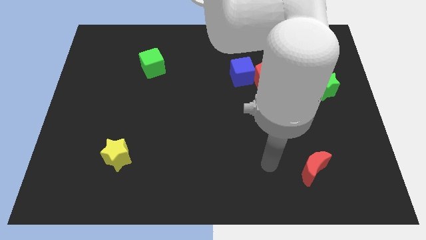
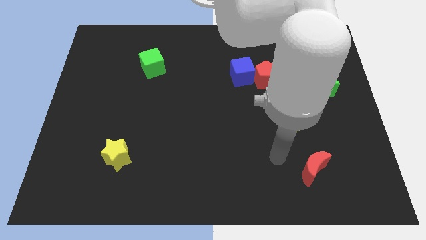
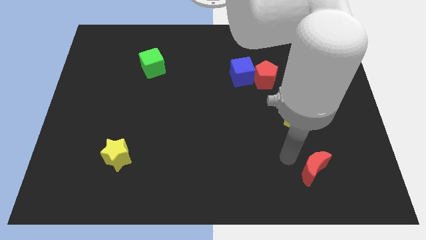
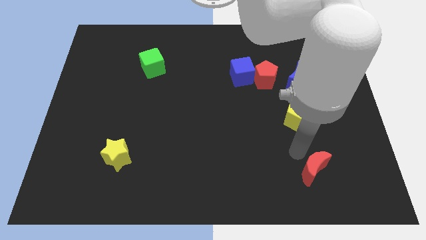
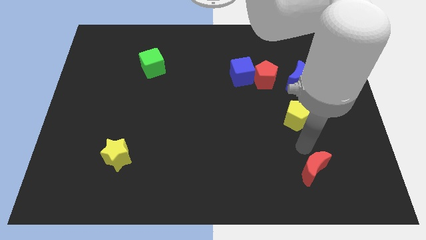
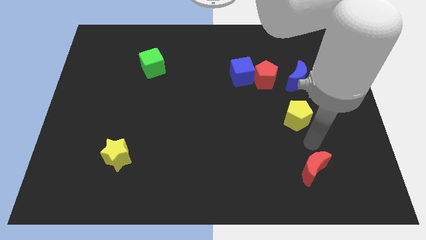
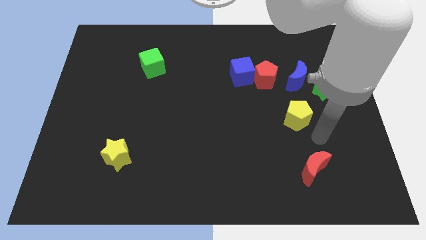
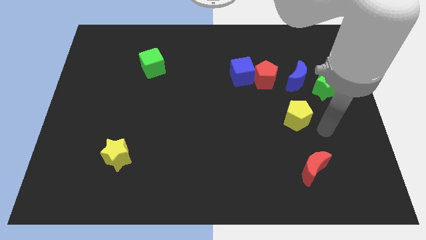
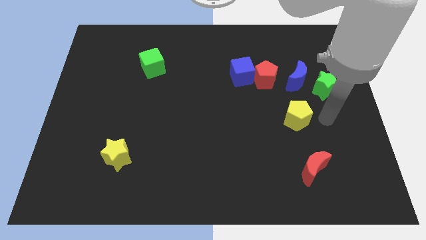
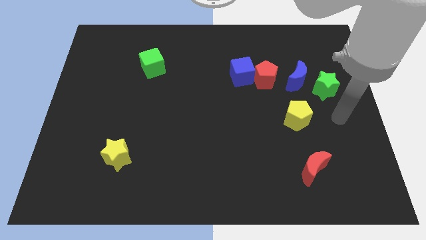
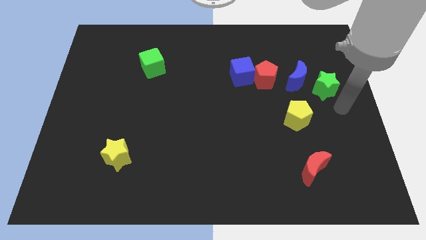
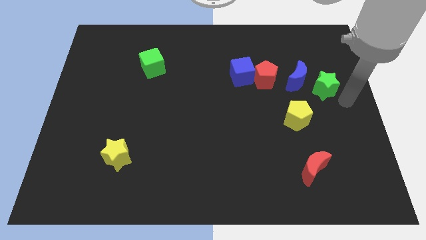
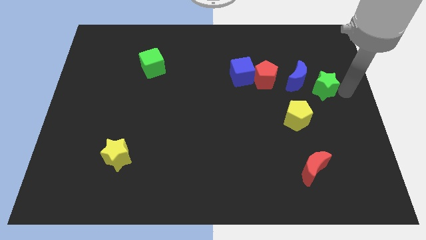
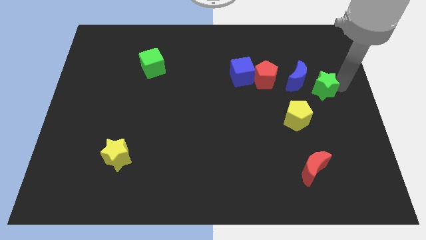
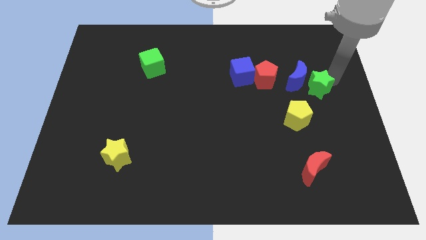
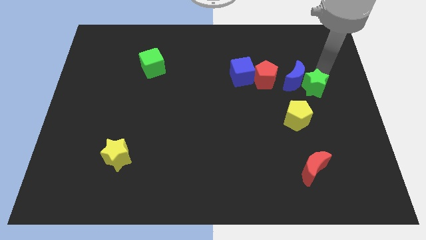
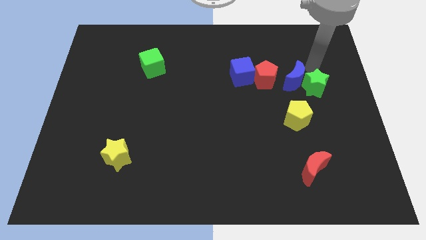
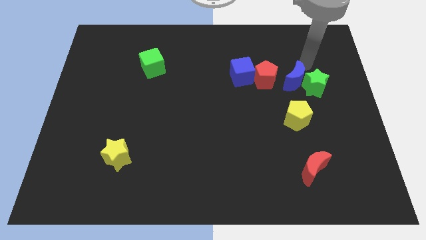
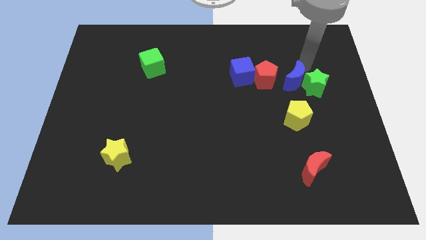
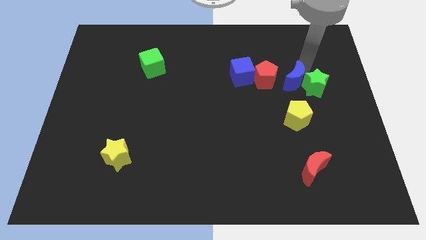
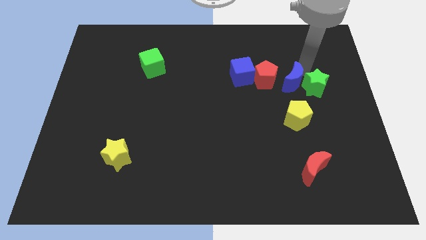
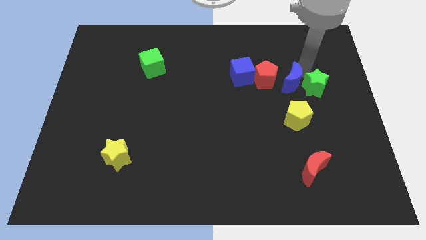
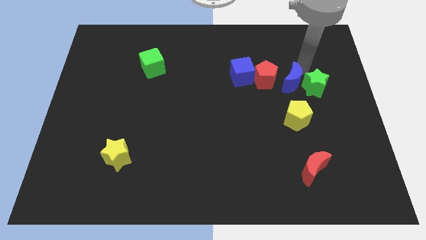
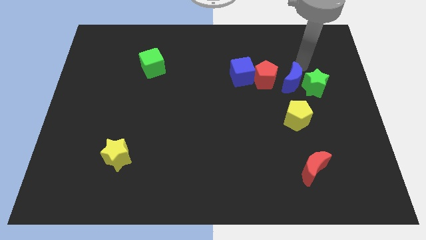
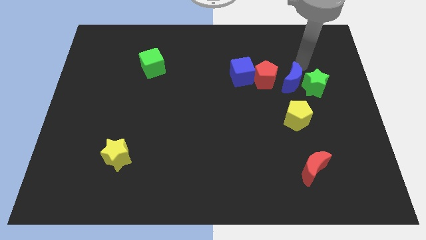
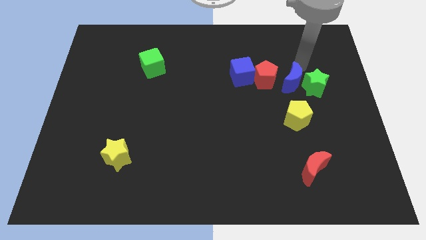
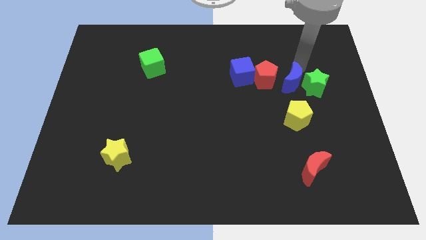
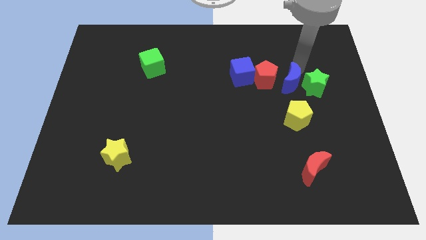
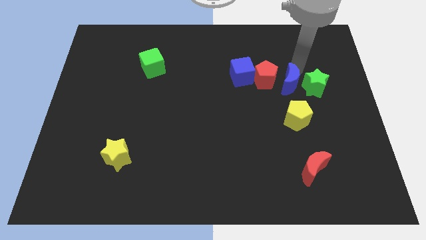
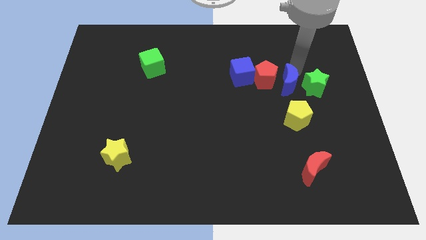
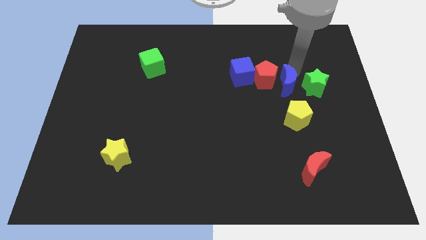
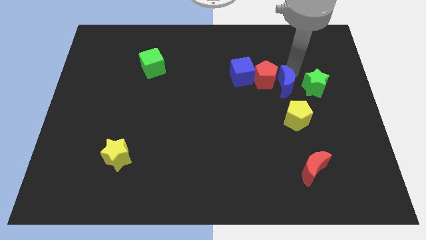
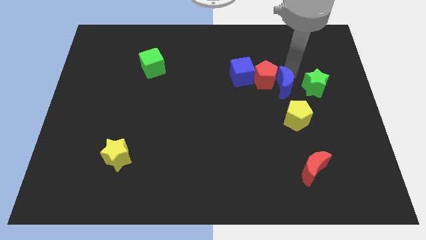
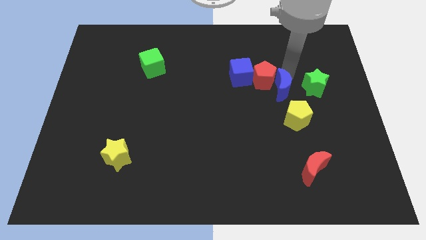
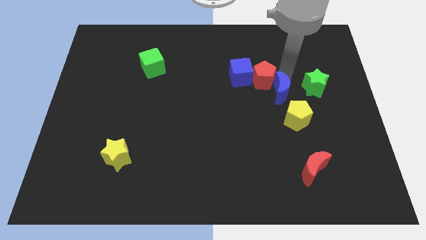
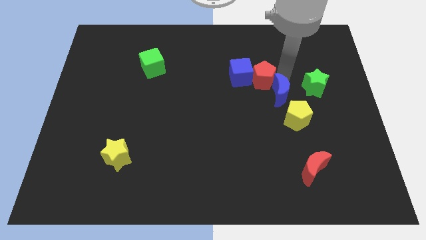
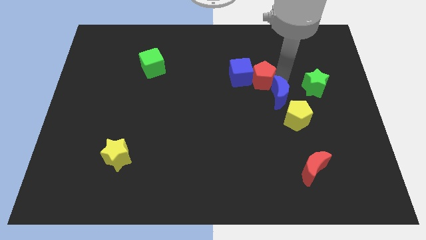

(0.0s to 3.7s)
move the blue moon down and then left slightly

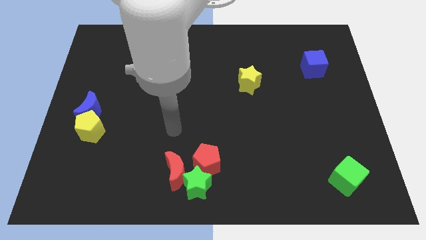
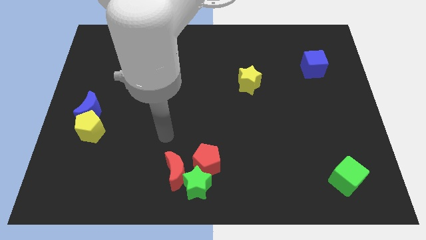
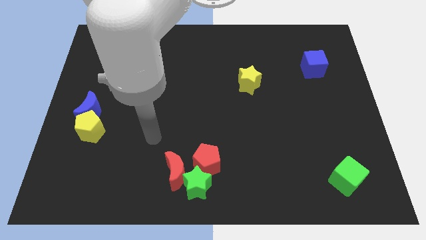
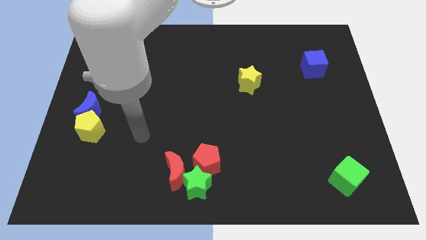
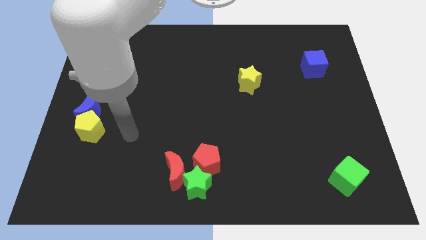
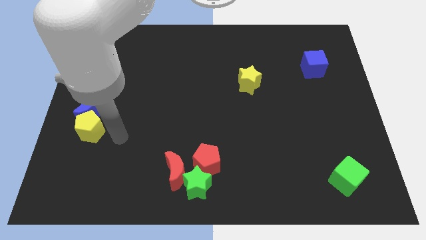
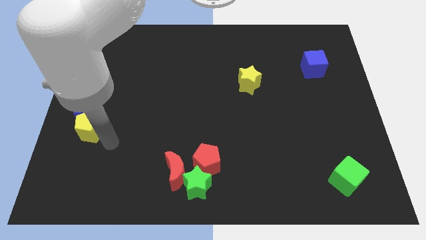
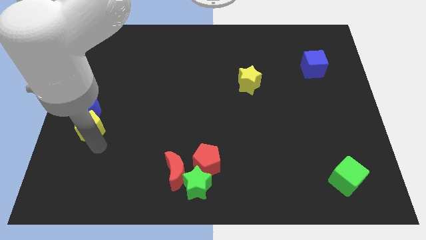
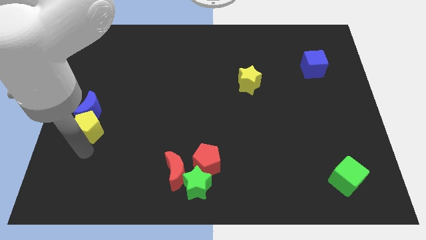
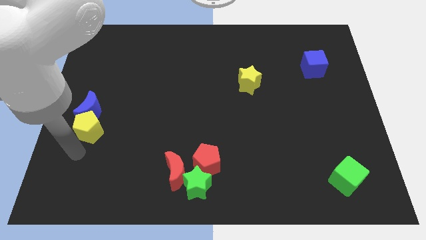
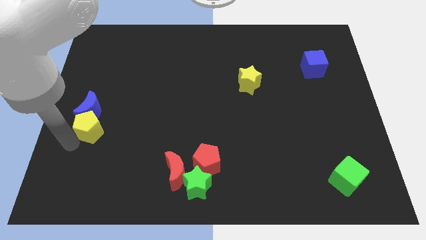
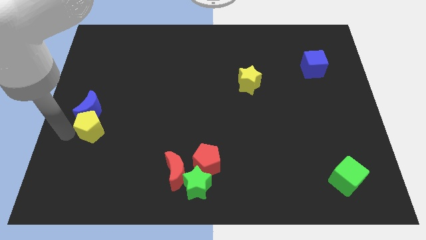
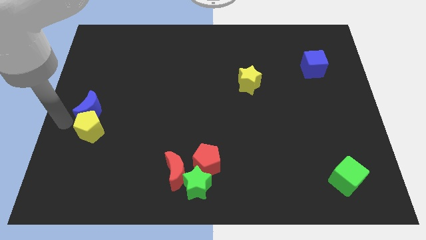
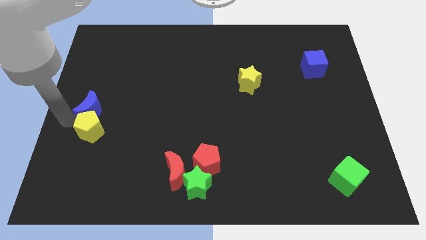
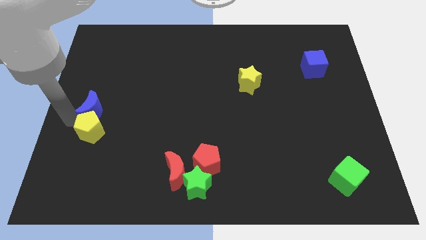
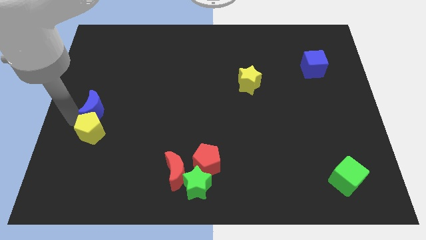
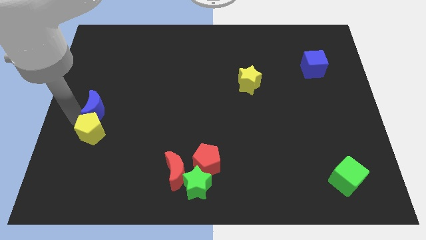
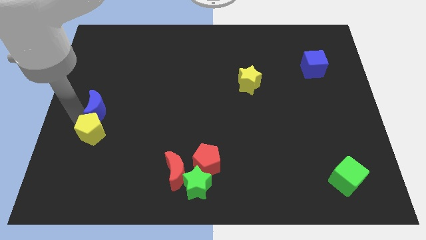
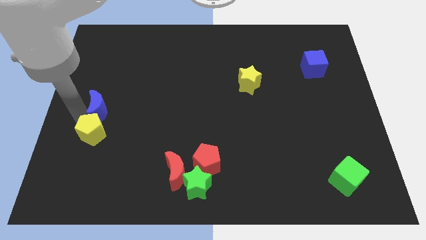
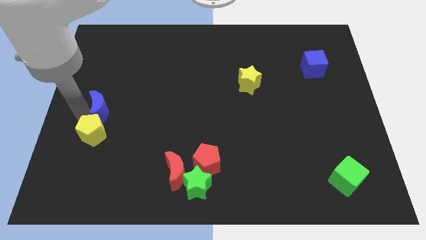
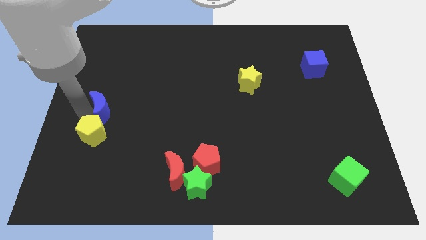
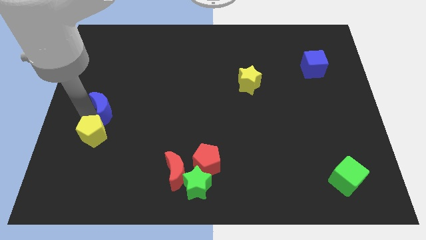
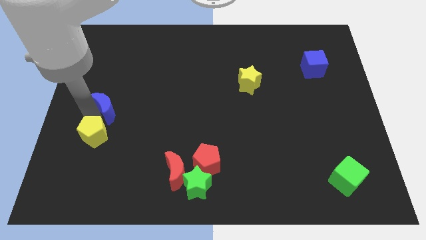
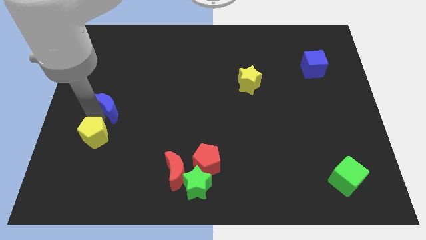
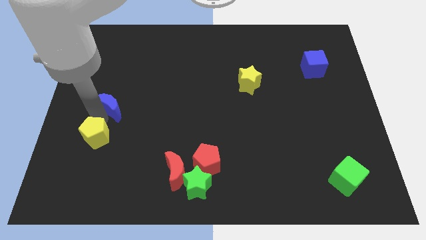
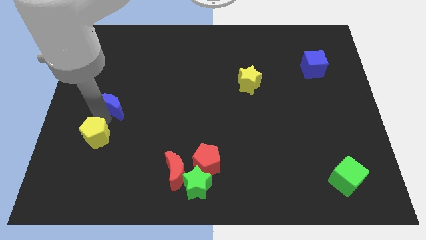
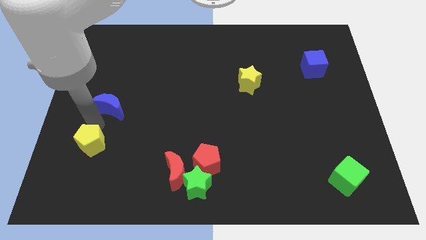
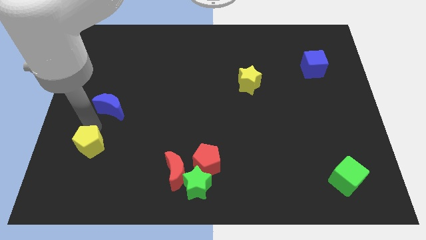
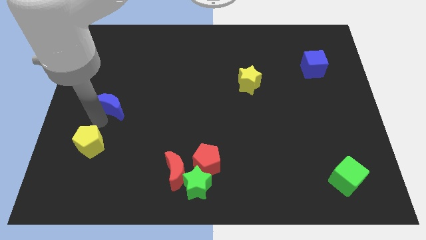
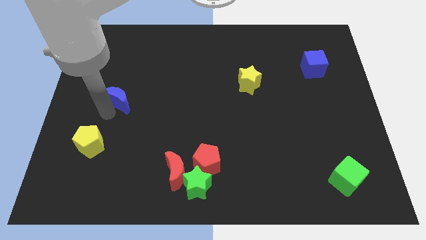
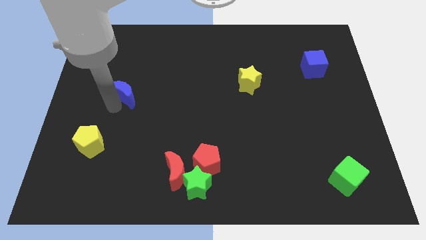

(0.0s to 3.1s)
slightly slide the blue moon diagonally upwards and to the right

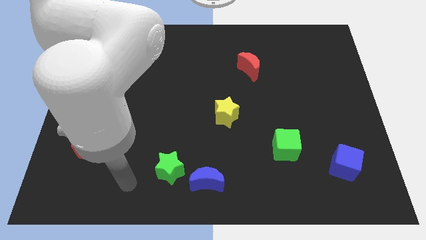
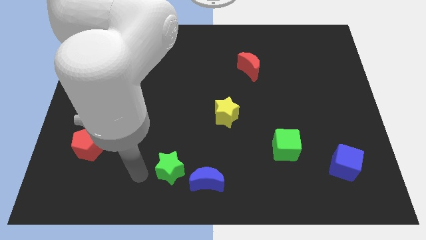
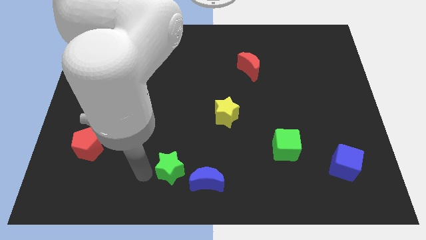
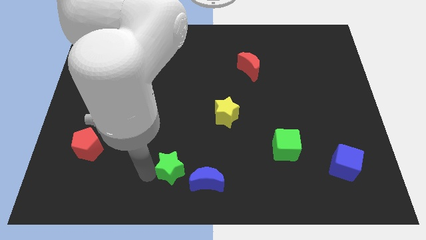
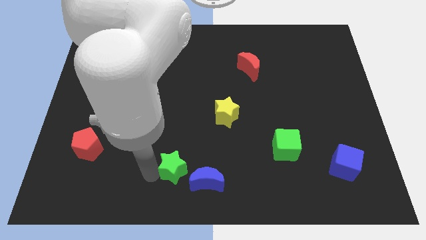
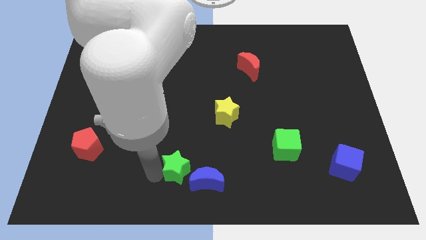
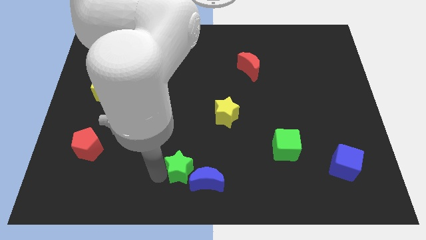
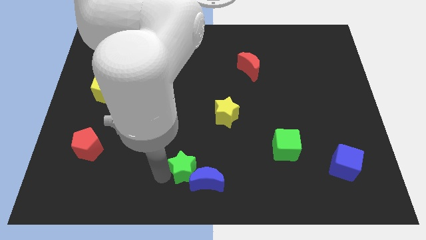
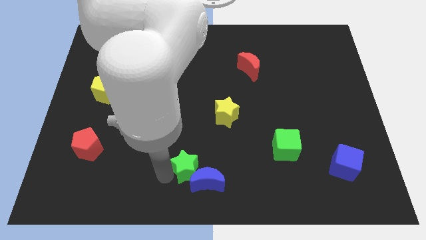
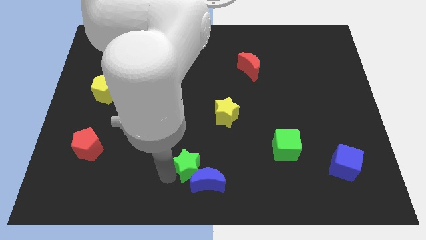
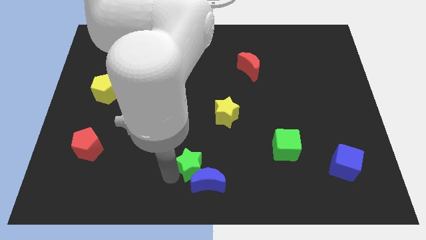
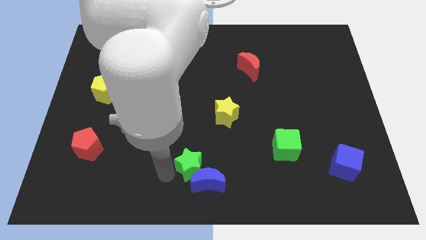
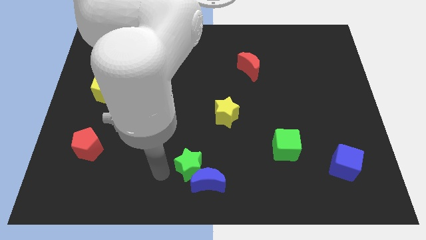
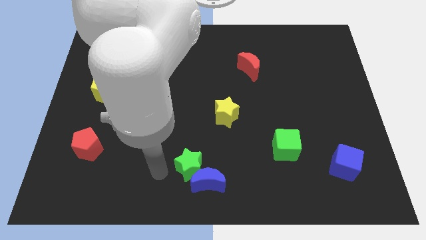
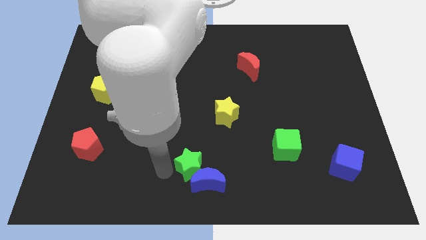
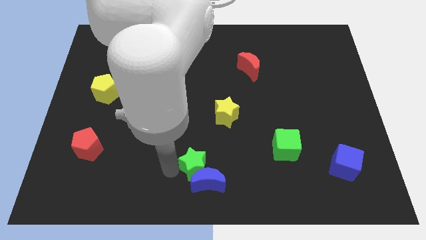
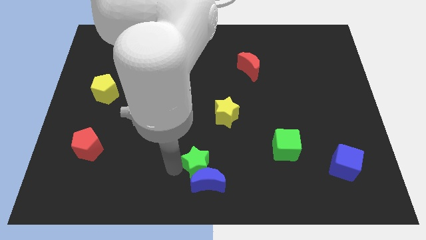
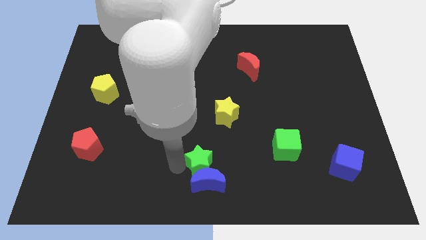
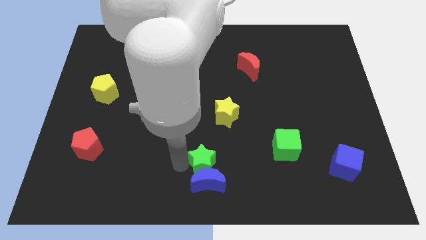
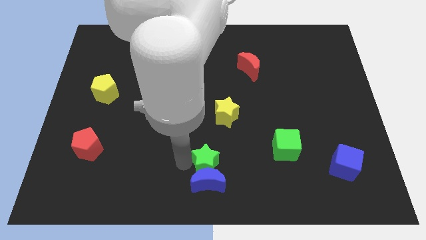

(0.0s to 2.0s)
move the green star a little to the right
